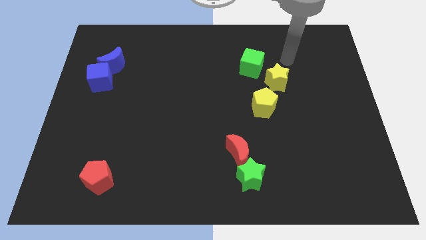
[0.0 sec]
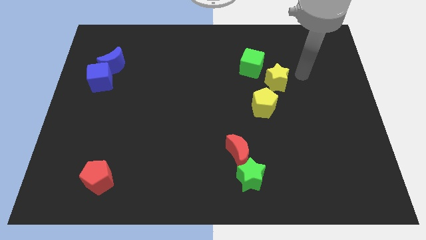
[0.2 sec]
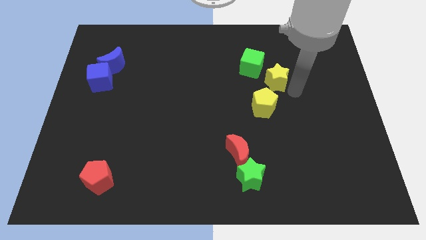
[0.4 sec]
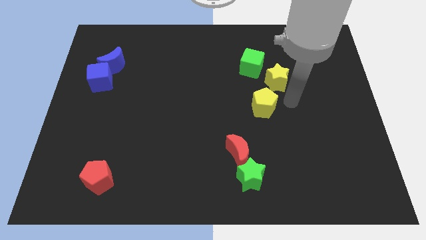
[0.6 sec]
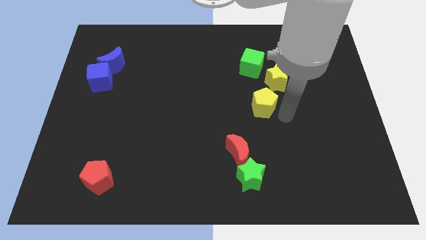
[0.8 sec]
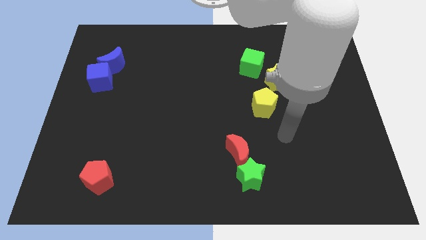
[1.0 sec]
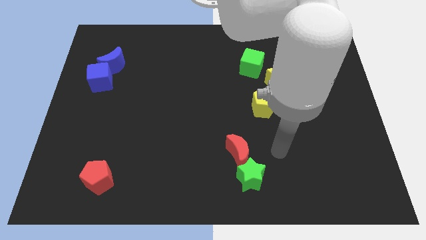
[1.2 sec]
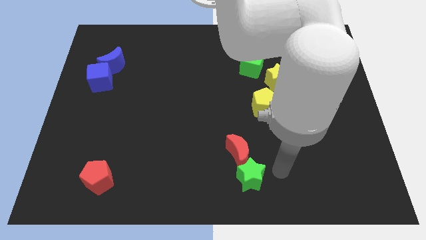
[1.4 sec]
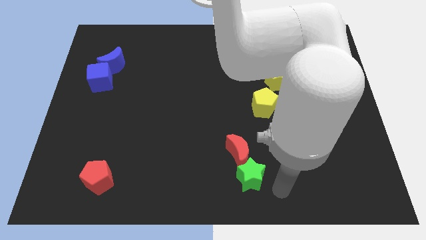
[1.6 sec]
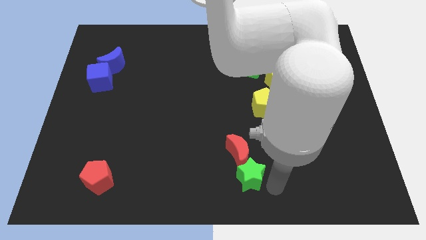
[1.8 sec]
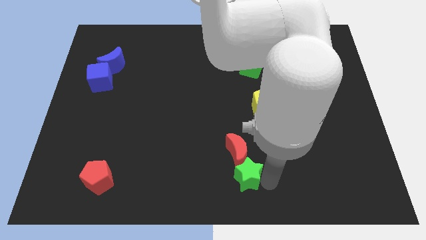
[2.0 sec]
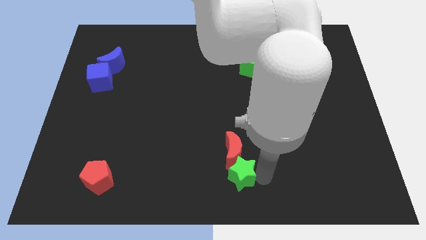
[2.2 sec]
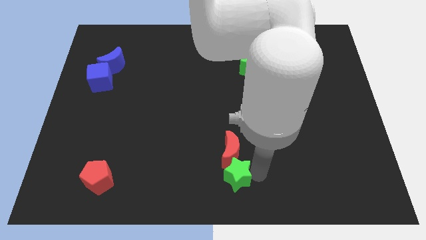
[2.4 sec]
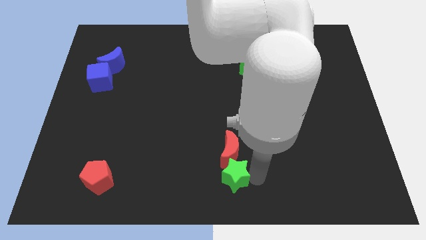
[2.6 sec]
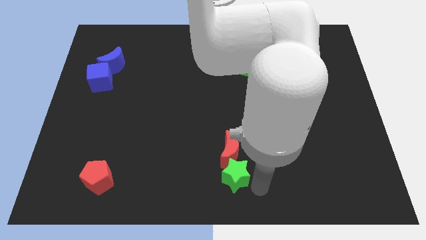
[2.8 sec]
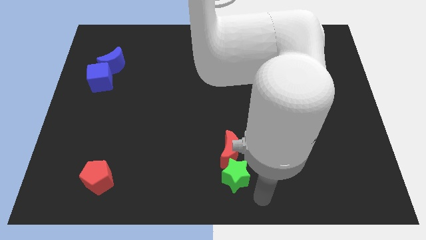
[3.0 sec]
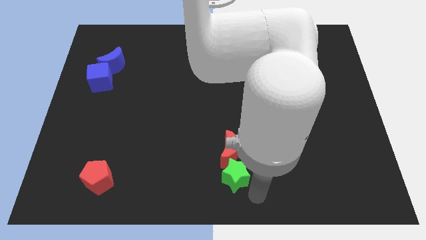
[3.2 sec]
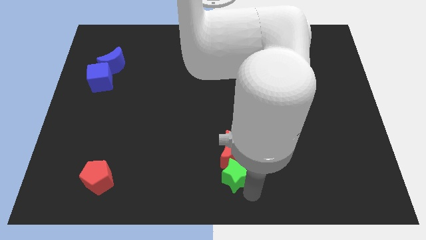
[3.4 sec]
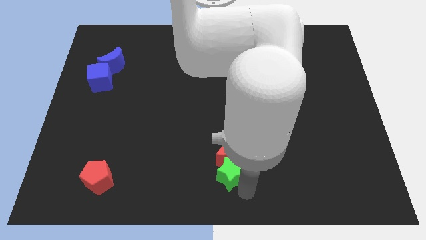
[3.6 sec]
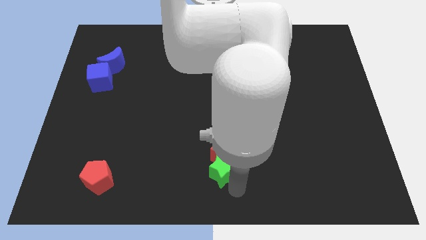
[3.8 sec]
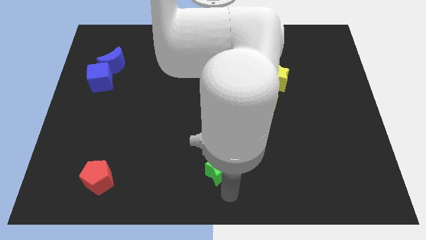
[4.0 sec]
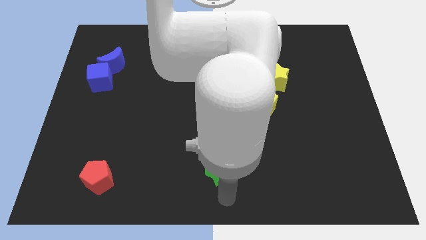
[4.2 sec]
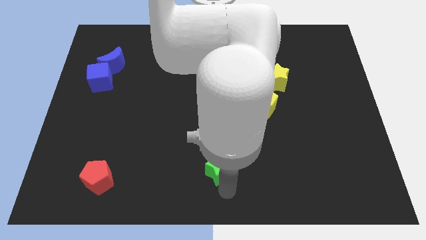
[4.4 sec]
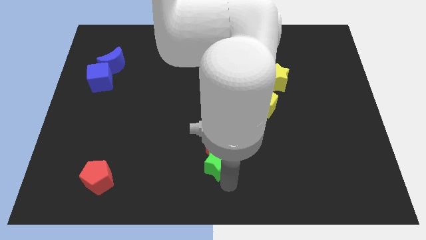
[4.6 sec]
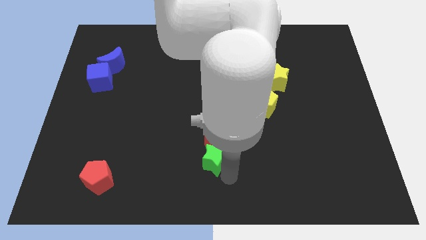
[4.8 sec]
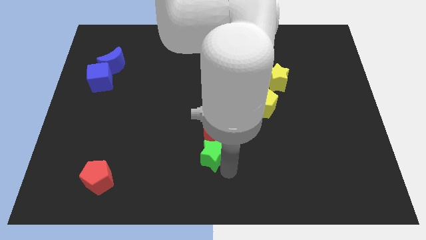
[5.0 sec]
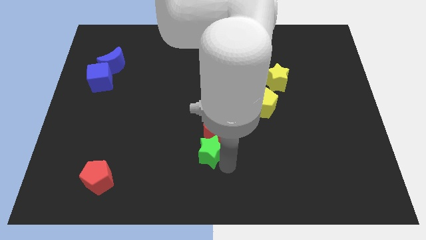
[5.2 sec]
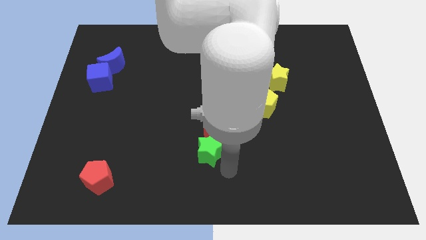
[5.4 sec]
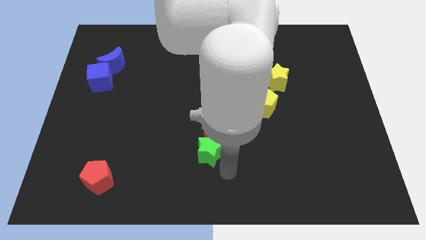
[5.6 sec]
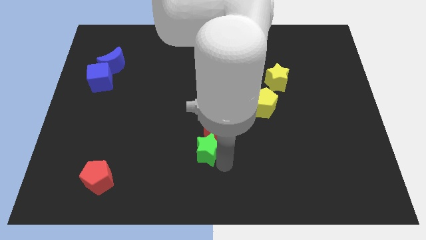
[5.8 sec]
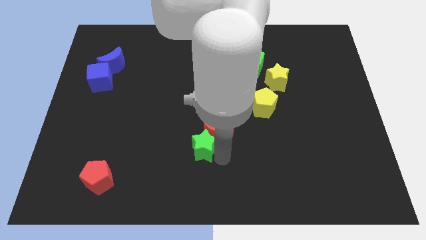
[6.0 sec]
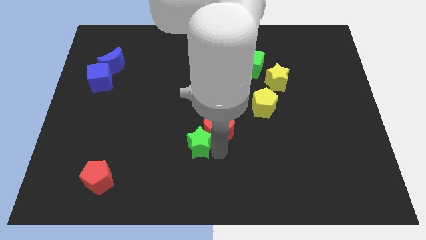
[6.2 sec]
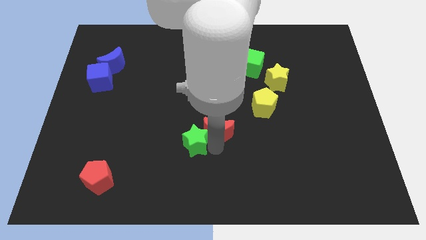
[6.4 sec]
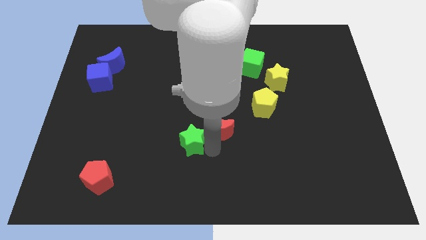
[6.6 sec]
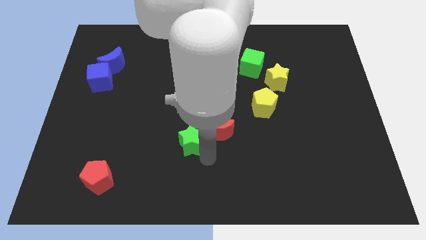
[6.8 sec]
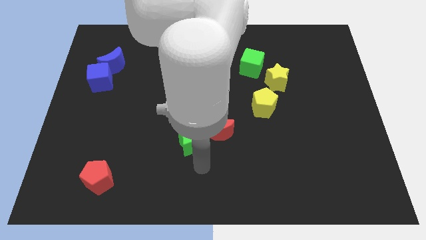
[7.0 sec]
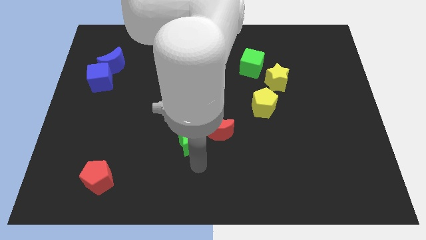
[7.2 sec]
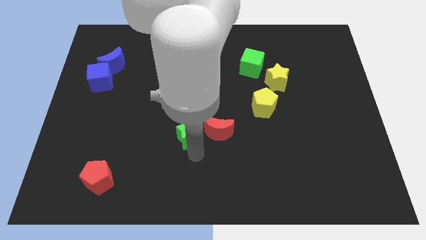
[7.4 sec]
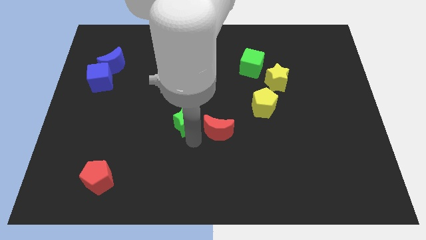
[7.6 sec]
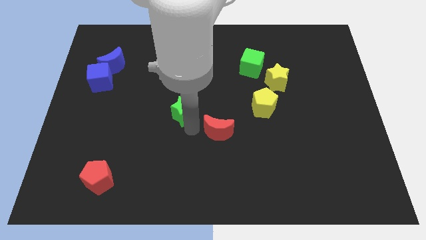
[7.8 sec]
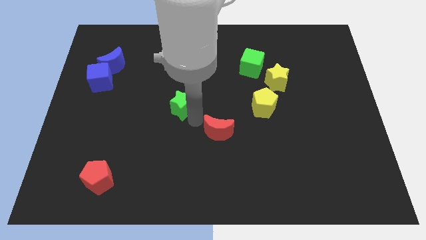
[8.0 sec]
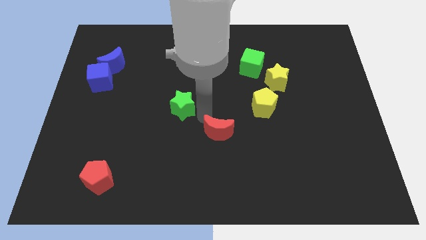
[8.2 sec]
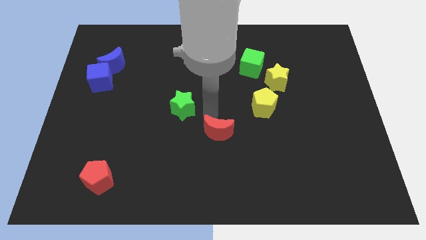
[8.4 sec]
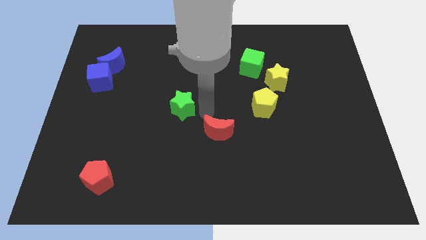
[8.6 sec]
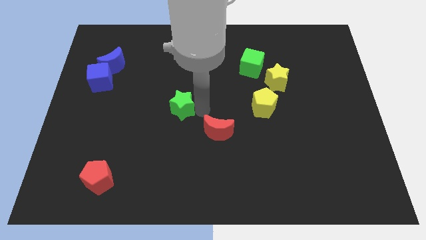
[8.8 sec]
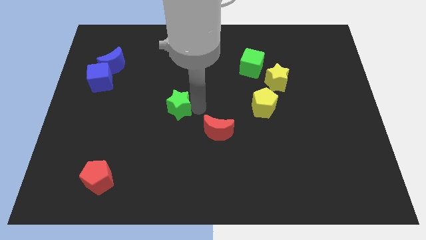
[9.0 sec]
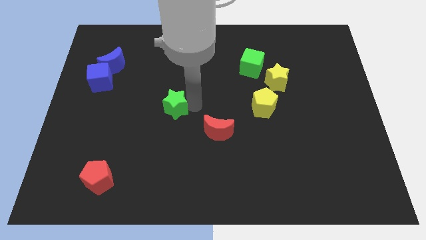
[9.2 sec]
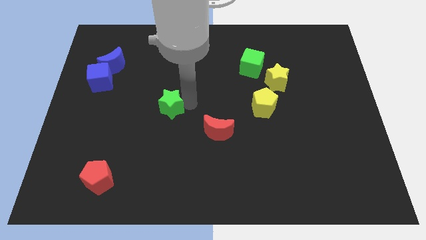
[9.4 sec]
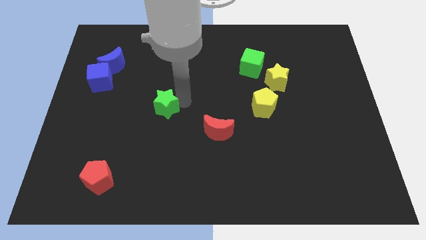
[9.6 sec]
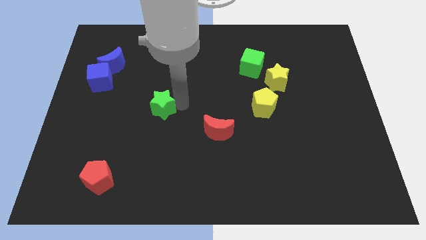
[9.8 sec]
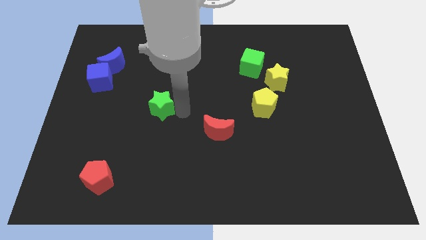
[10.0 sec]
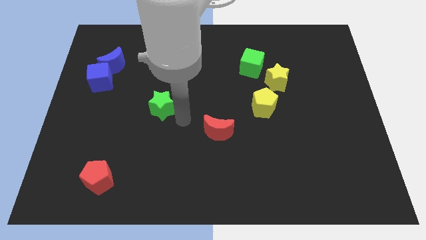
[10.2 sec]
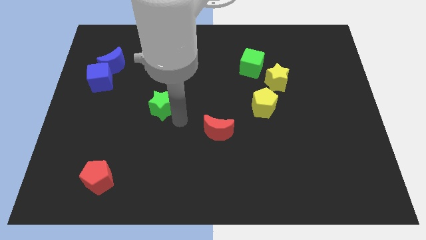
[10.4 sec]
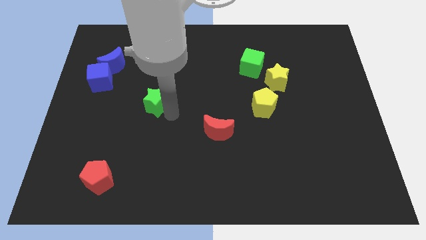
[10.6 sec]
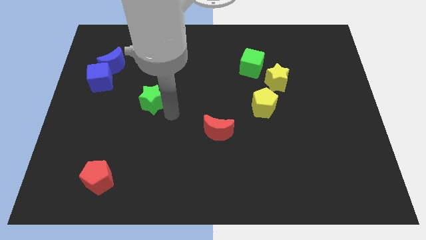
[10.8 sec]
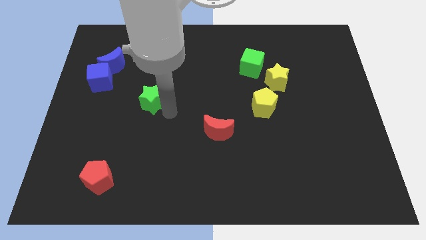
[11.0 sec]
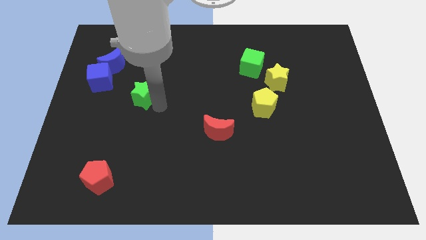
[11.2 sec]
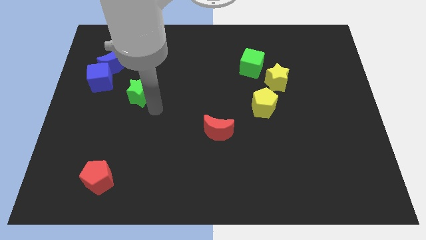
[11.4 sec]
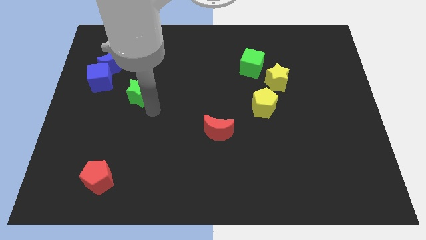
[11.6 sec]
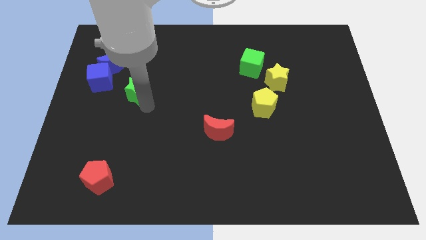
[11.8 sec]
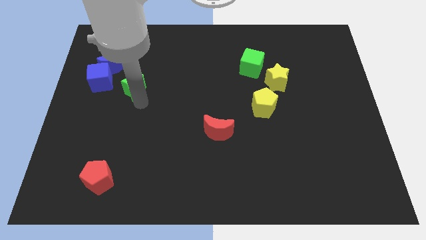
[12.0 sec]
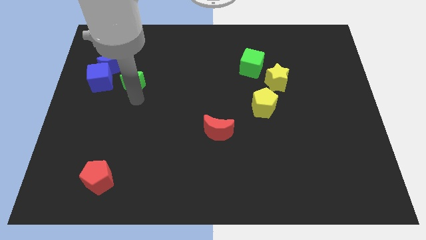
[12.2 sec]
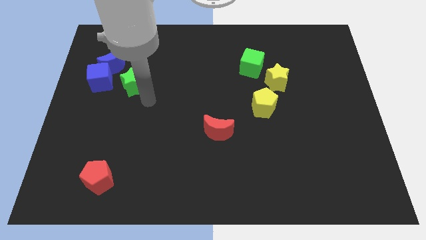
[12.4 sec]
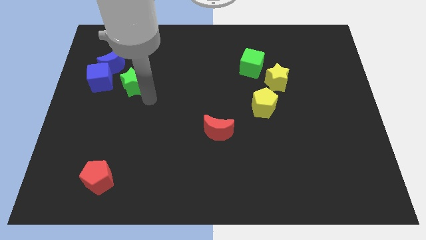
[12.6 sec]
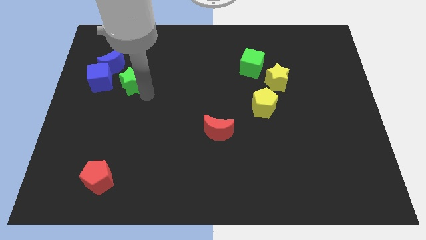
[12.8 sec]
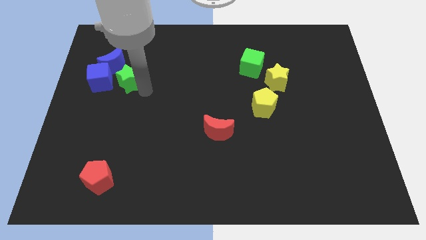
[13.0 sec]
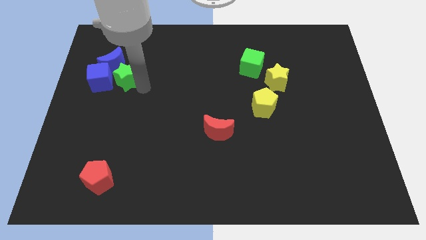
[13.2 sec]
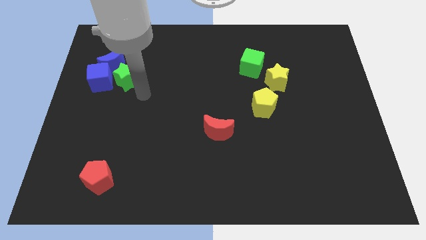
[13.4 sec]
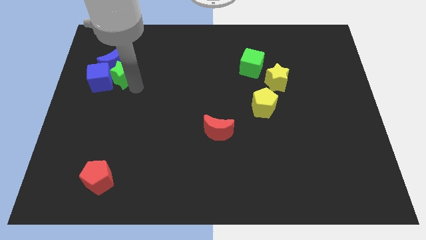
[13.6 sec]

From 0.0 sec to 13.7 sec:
put the green star next to the blue moon

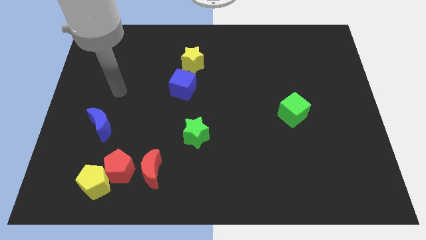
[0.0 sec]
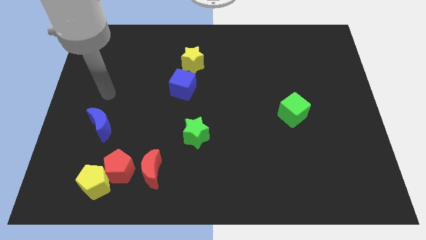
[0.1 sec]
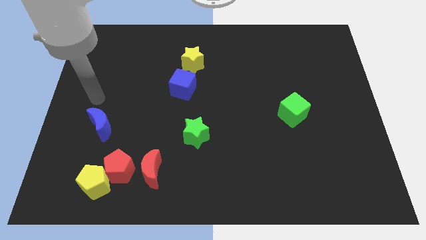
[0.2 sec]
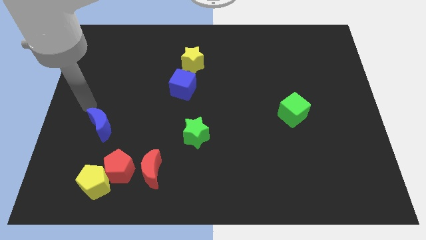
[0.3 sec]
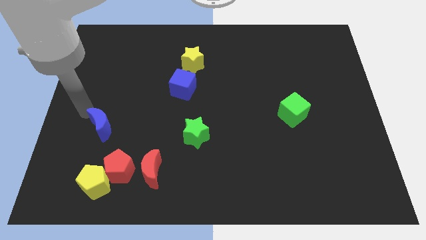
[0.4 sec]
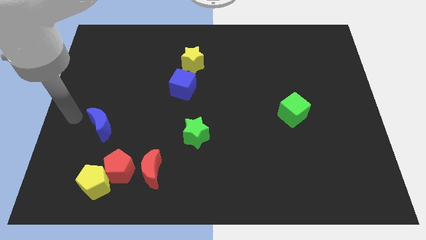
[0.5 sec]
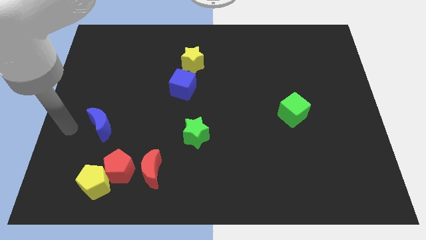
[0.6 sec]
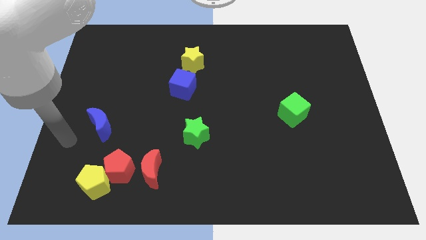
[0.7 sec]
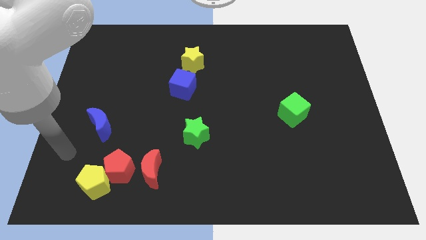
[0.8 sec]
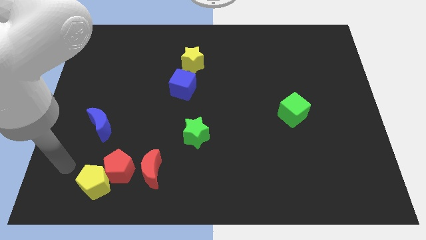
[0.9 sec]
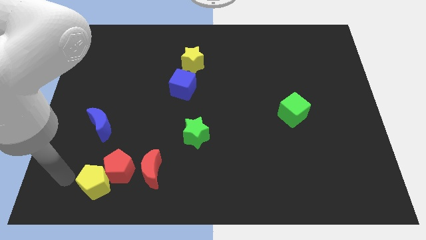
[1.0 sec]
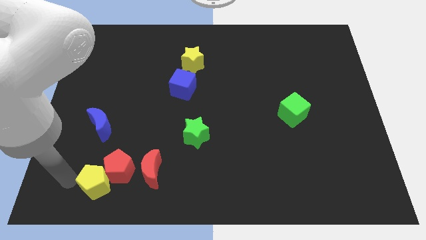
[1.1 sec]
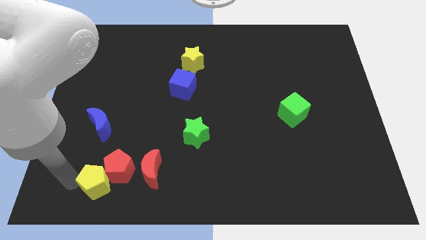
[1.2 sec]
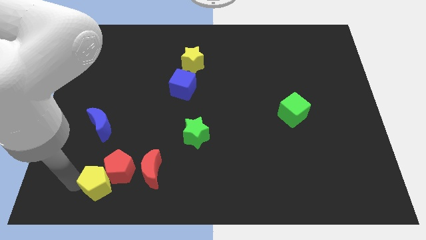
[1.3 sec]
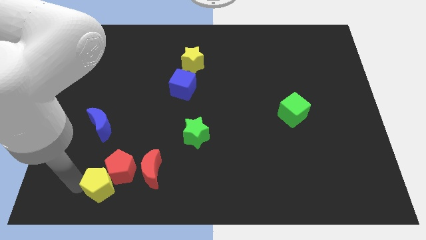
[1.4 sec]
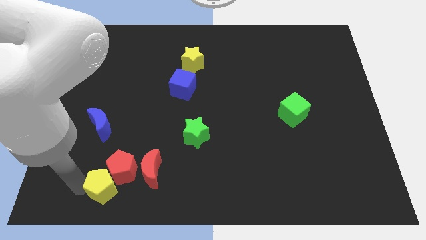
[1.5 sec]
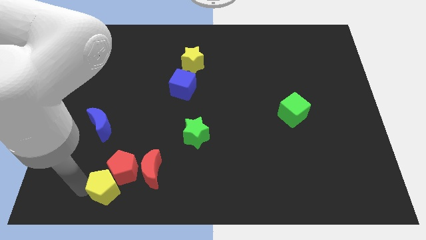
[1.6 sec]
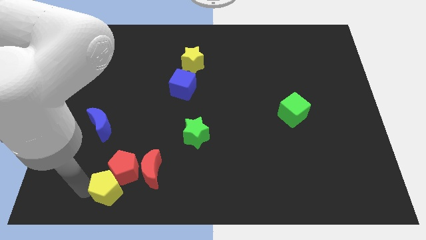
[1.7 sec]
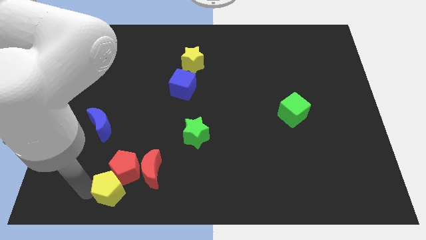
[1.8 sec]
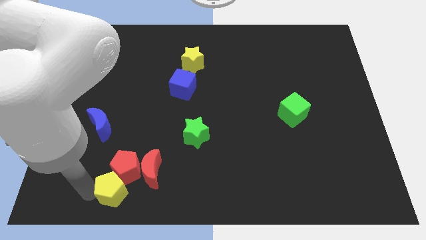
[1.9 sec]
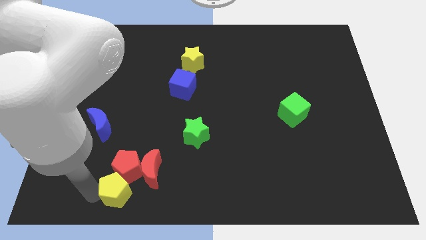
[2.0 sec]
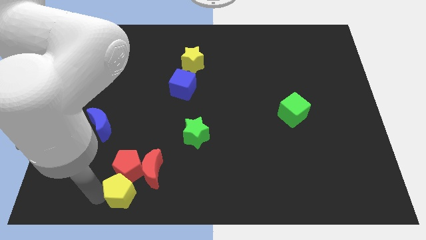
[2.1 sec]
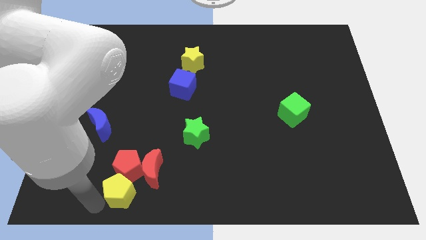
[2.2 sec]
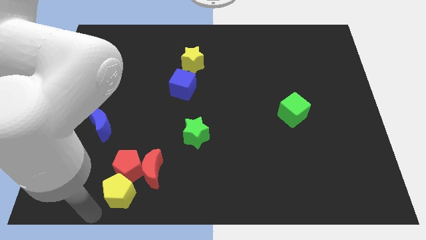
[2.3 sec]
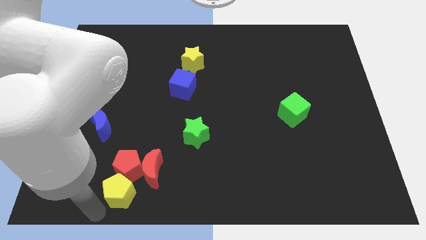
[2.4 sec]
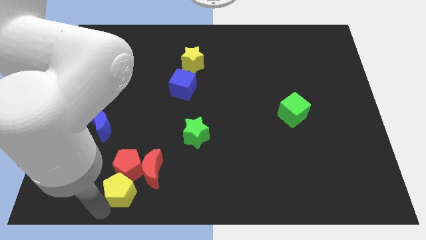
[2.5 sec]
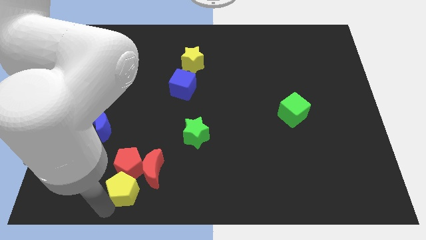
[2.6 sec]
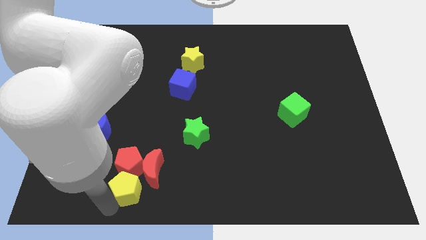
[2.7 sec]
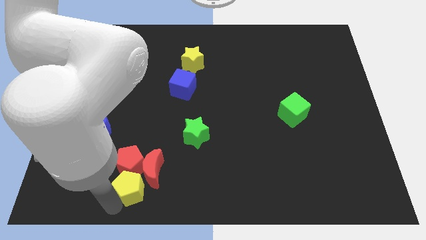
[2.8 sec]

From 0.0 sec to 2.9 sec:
slide the yellow pentagon towards the red moon
